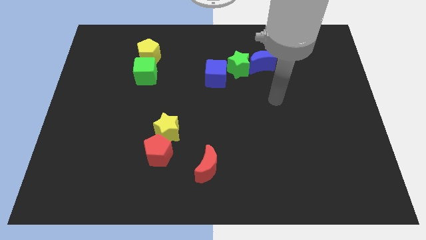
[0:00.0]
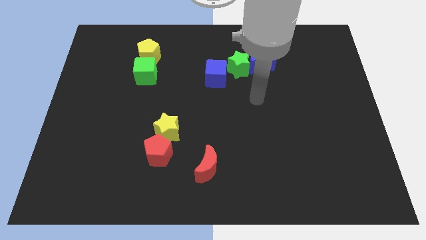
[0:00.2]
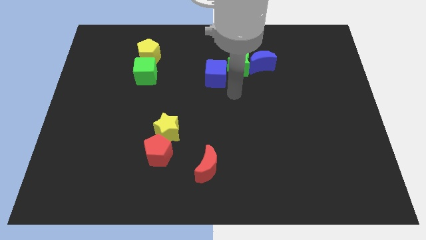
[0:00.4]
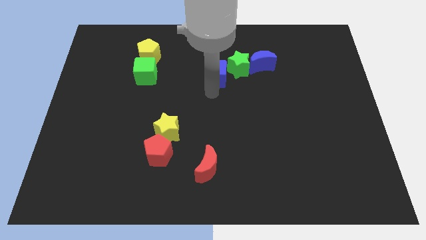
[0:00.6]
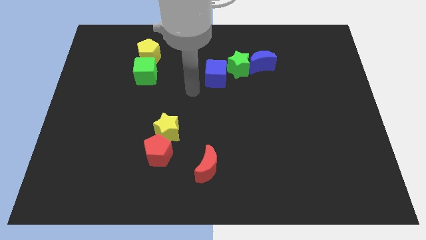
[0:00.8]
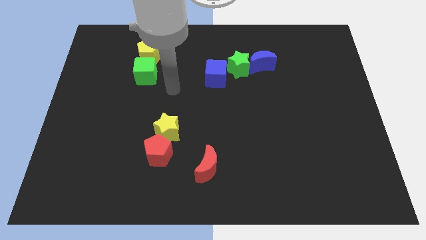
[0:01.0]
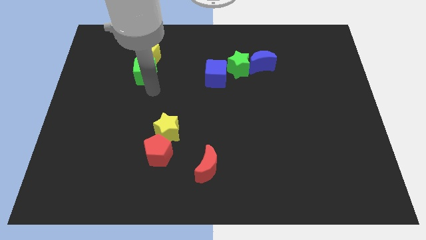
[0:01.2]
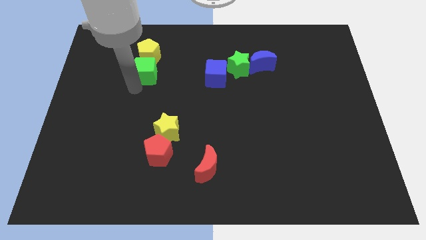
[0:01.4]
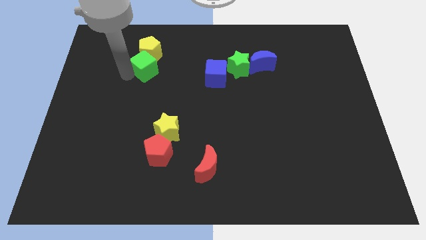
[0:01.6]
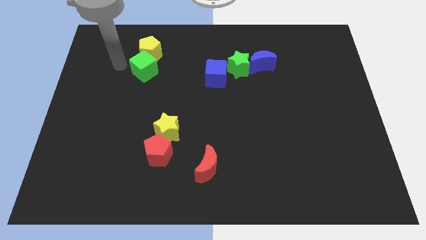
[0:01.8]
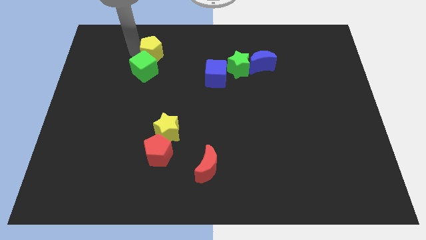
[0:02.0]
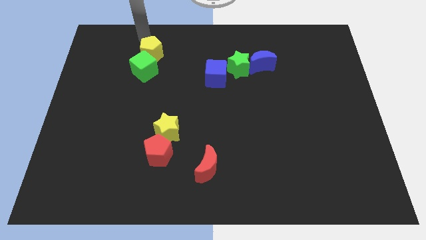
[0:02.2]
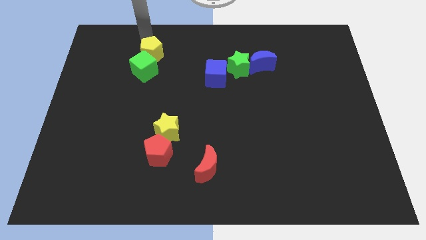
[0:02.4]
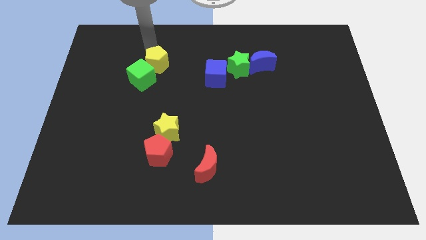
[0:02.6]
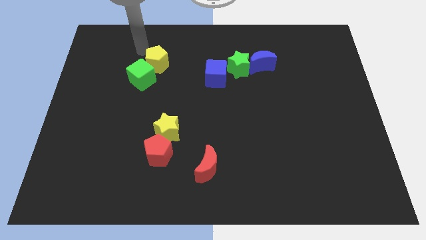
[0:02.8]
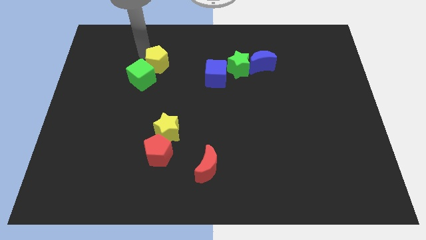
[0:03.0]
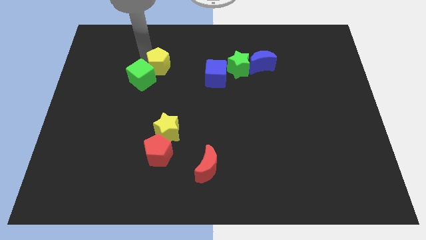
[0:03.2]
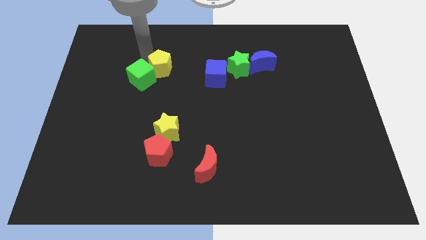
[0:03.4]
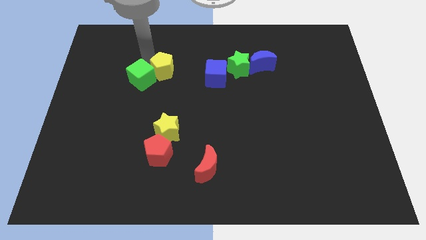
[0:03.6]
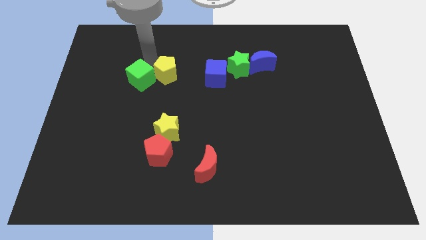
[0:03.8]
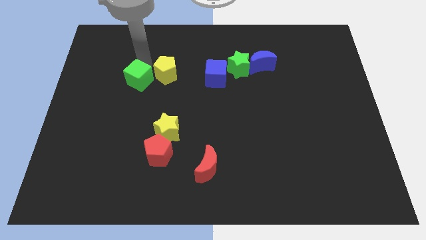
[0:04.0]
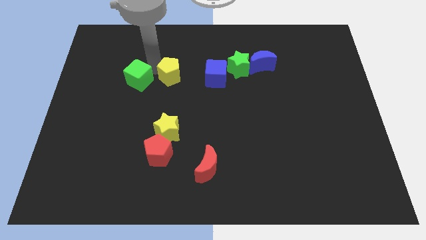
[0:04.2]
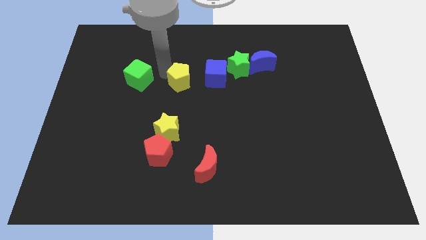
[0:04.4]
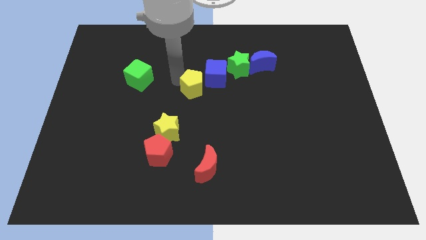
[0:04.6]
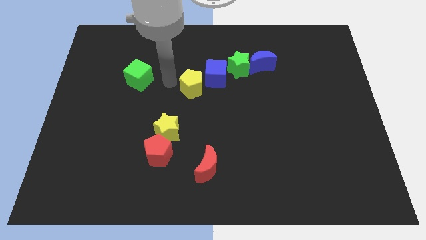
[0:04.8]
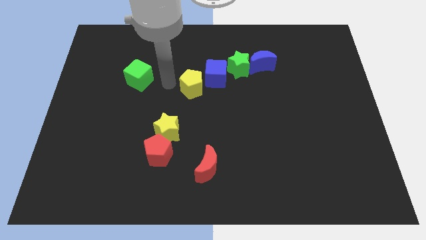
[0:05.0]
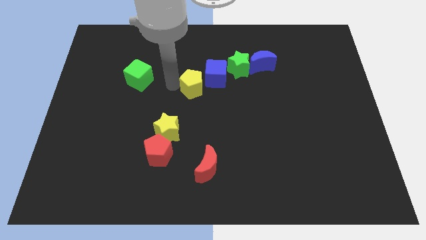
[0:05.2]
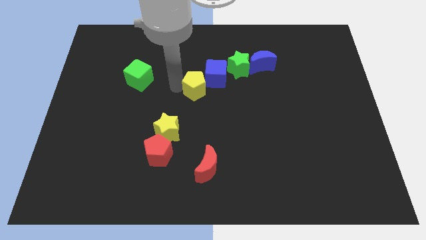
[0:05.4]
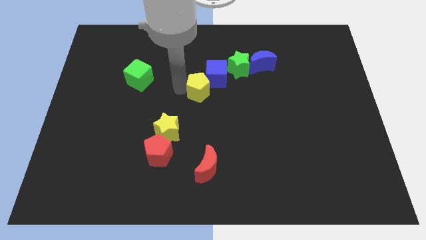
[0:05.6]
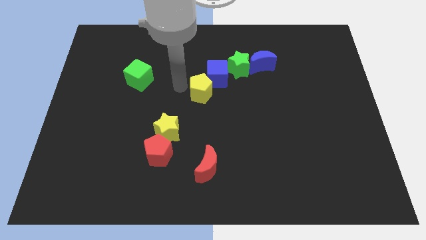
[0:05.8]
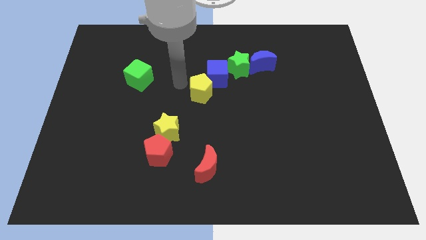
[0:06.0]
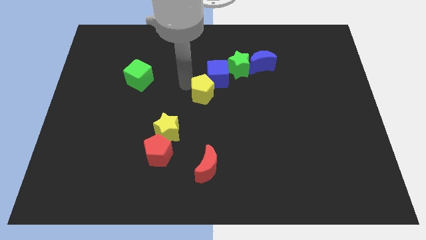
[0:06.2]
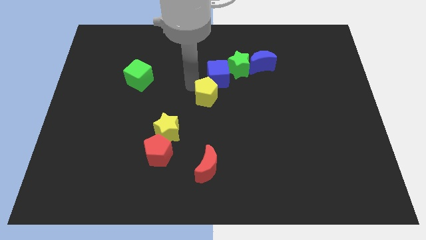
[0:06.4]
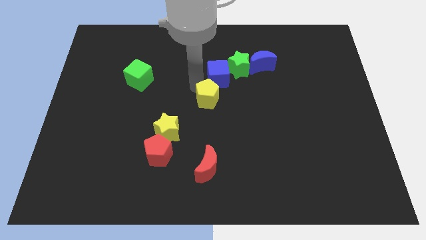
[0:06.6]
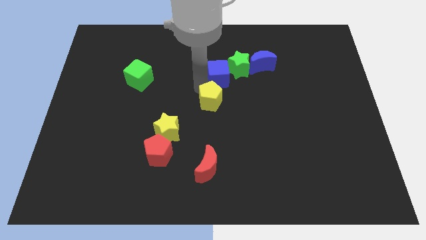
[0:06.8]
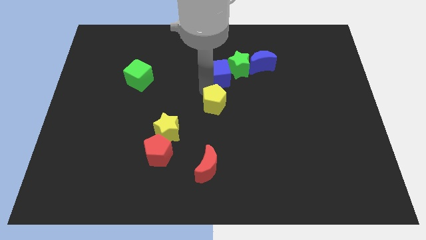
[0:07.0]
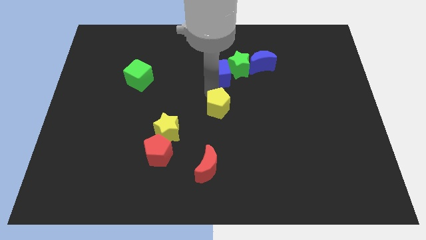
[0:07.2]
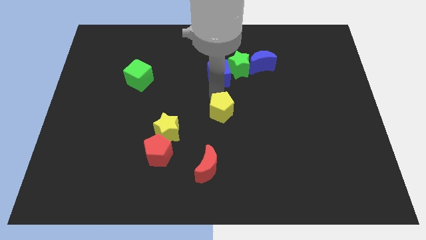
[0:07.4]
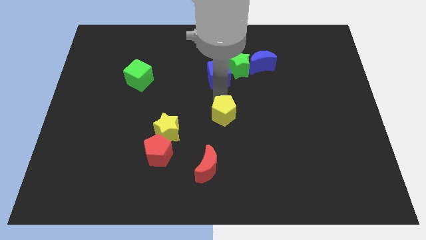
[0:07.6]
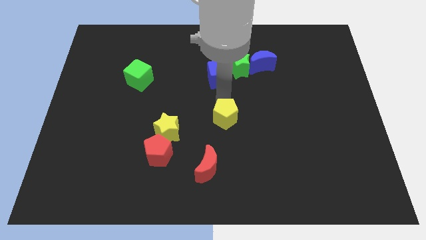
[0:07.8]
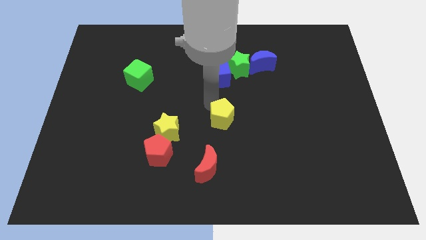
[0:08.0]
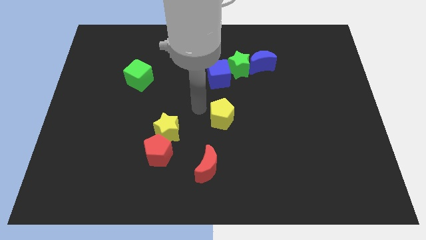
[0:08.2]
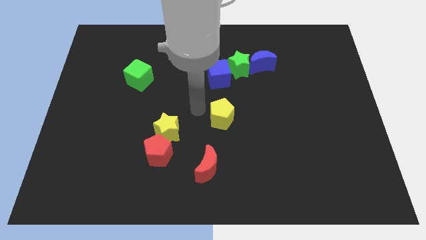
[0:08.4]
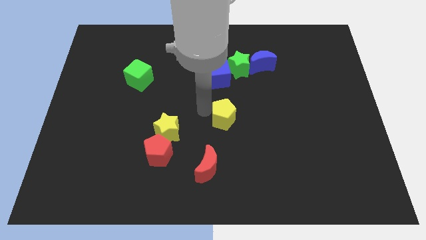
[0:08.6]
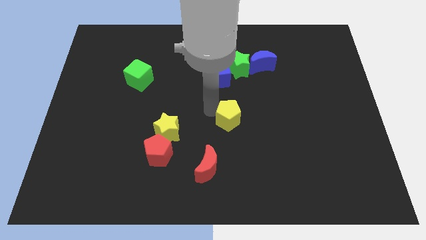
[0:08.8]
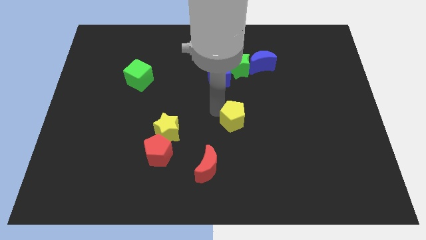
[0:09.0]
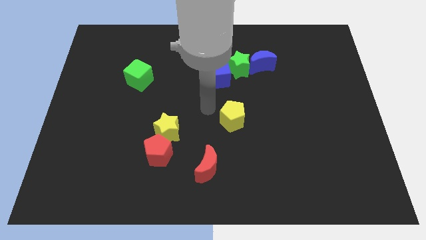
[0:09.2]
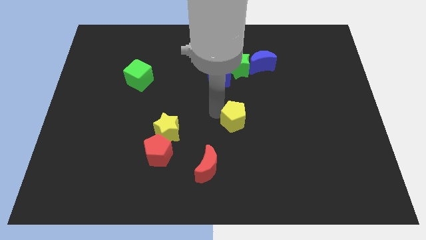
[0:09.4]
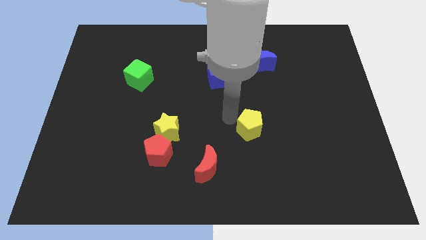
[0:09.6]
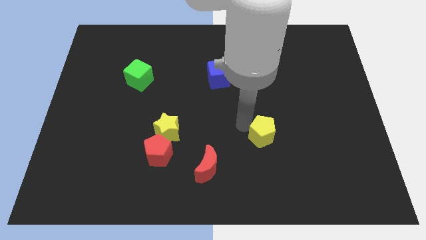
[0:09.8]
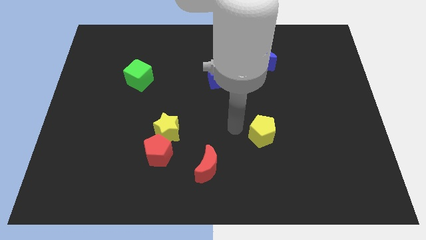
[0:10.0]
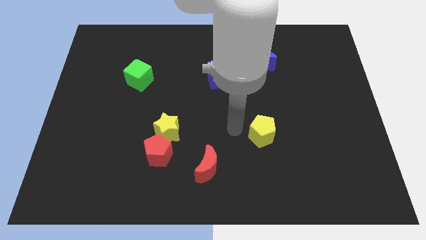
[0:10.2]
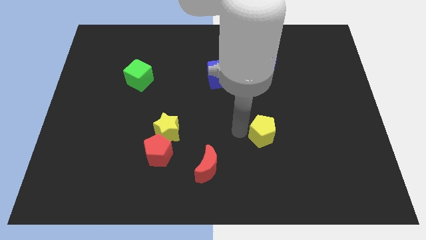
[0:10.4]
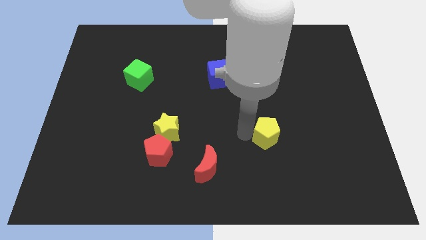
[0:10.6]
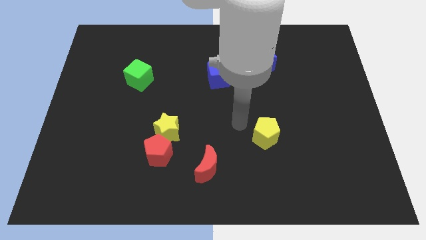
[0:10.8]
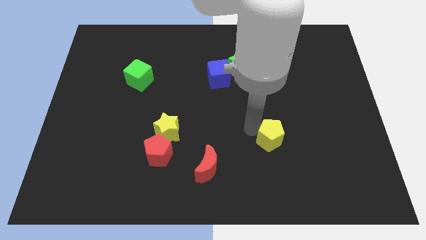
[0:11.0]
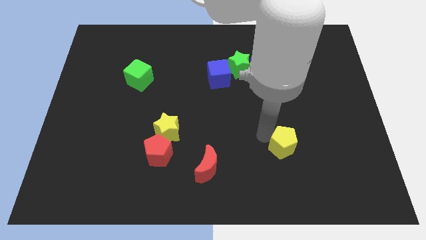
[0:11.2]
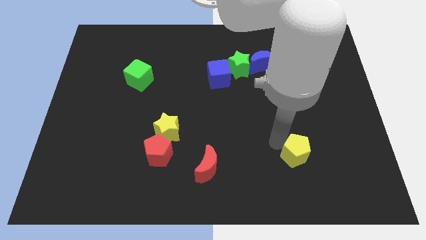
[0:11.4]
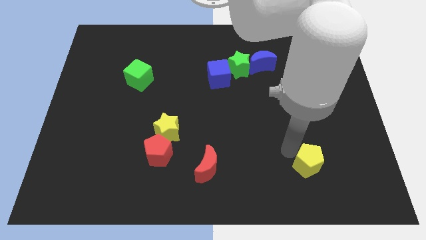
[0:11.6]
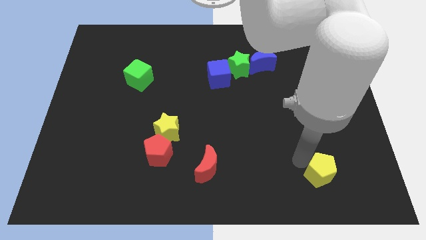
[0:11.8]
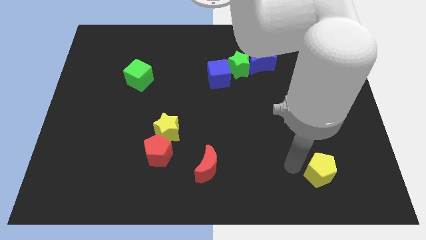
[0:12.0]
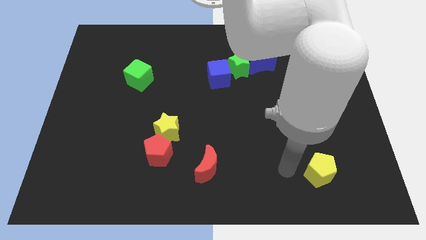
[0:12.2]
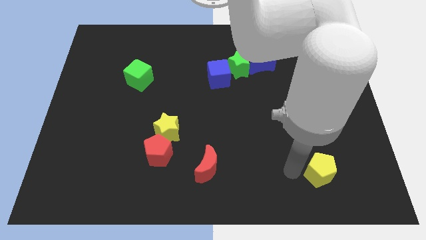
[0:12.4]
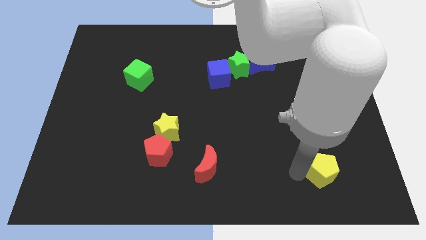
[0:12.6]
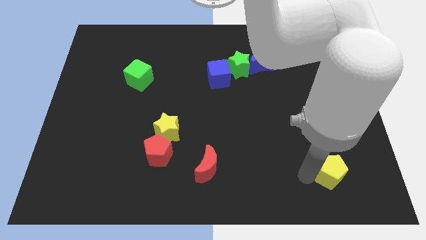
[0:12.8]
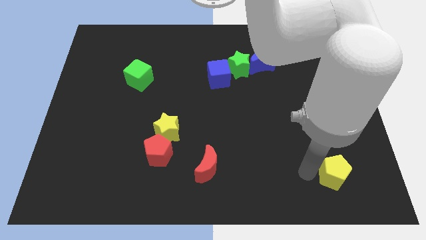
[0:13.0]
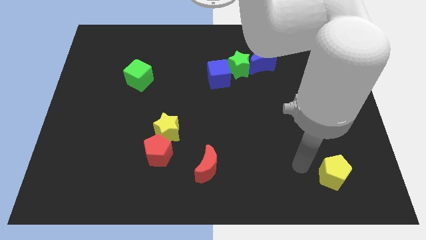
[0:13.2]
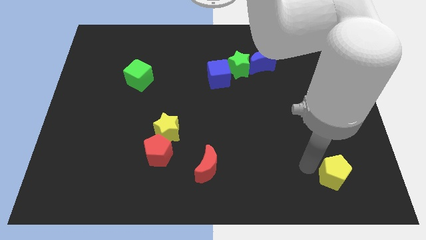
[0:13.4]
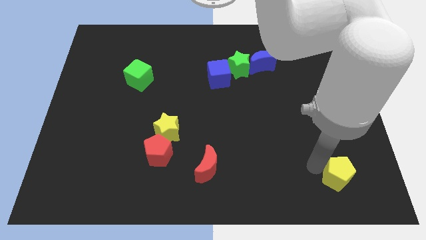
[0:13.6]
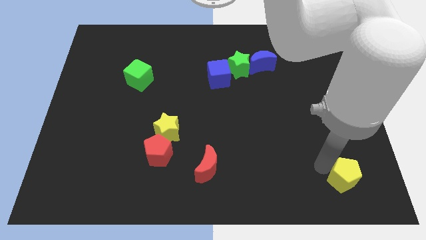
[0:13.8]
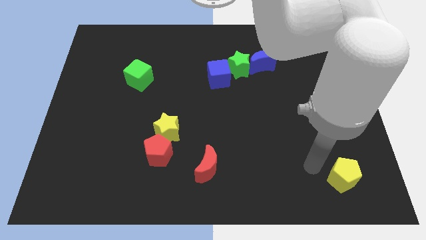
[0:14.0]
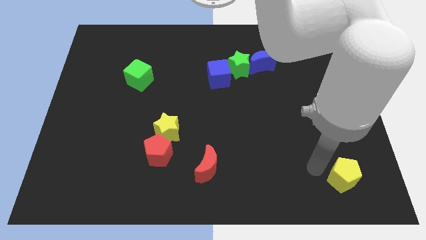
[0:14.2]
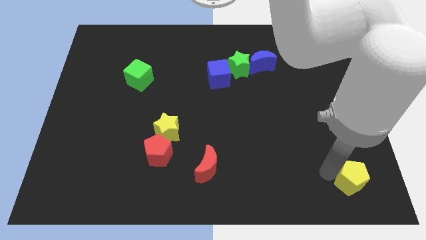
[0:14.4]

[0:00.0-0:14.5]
push the yellow pentagon to the lower right corner
